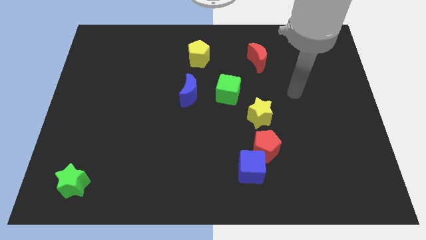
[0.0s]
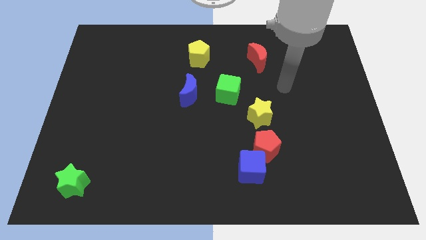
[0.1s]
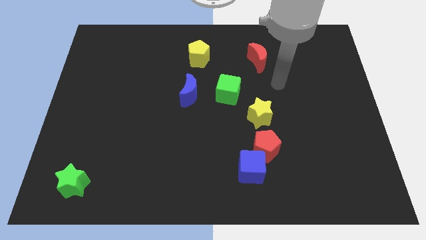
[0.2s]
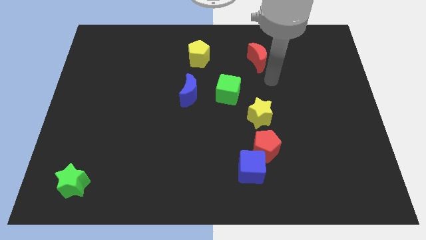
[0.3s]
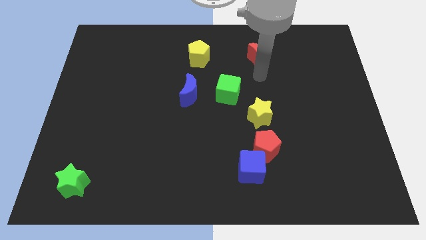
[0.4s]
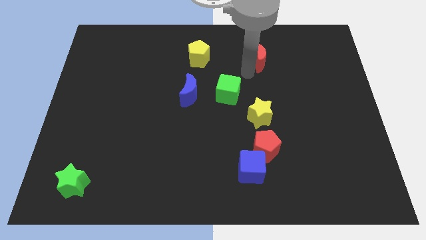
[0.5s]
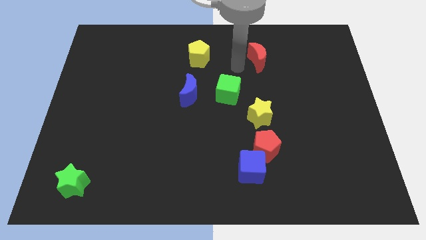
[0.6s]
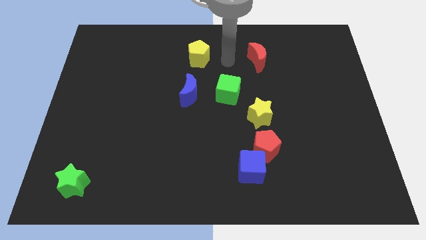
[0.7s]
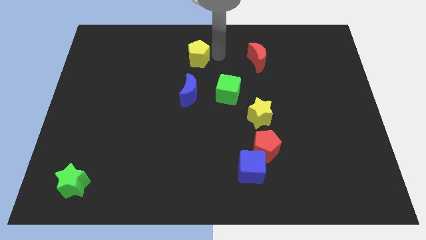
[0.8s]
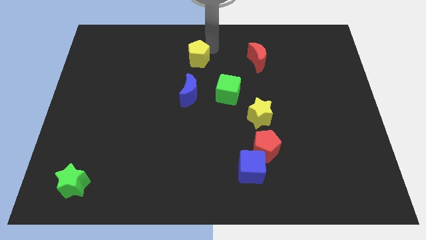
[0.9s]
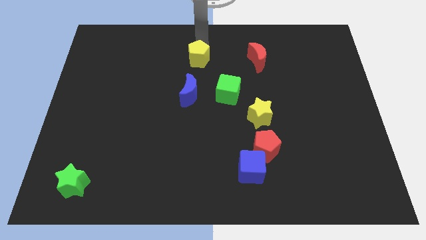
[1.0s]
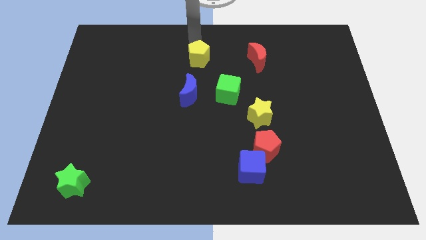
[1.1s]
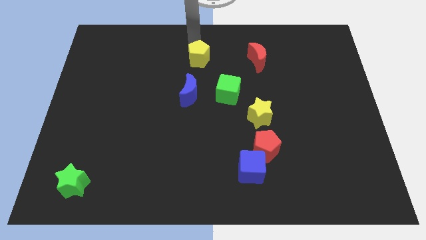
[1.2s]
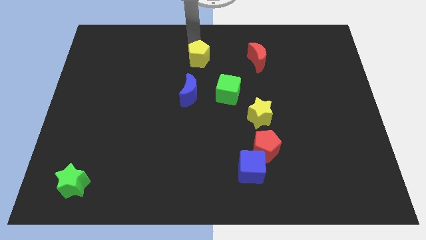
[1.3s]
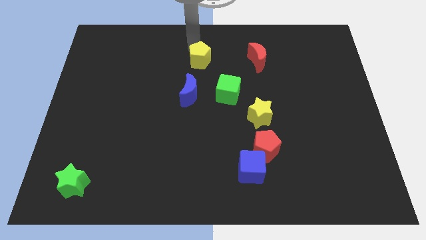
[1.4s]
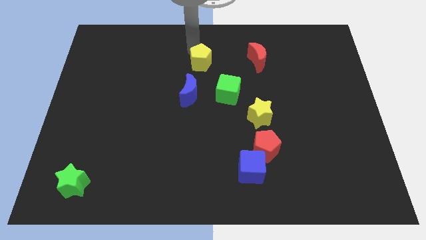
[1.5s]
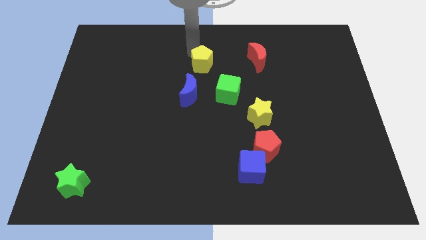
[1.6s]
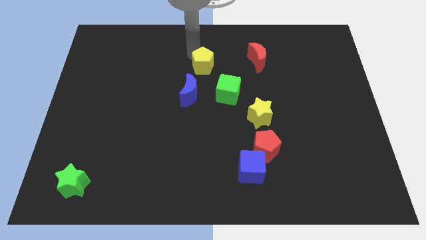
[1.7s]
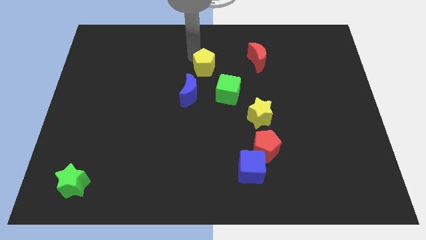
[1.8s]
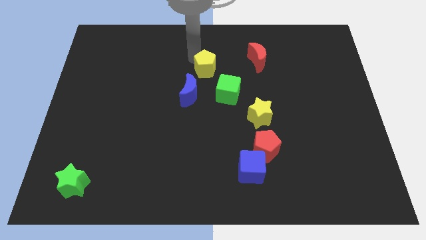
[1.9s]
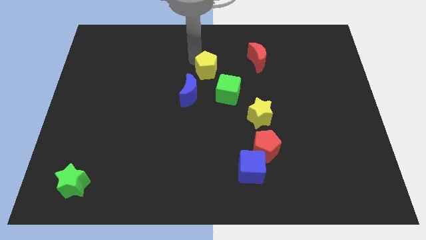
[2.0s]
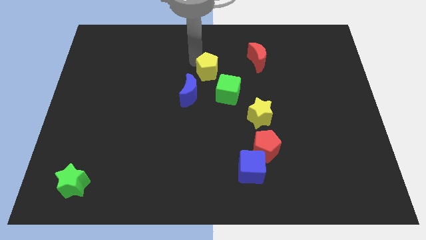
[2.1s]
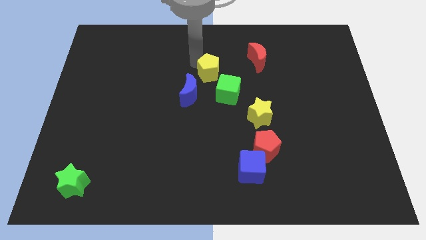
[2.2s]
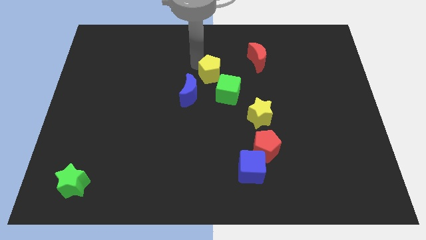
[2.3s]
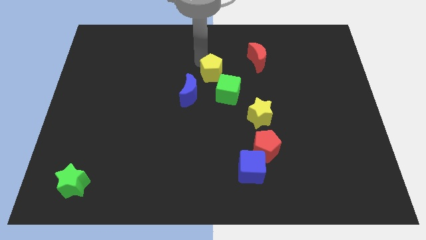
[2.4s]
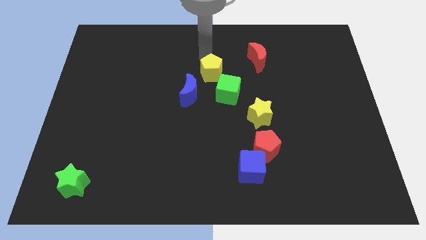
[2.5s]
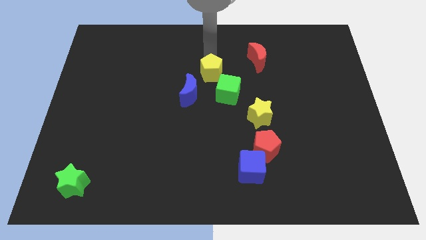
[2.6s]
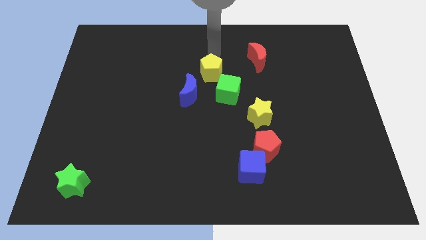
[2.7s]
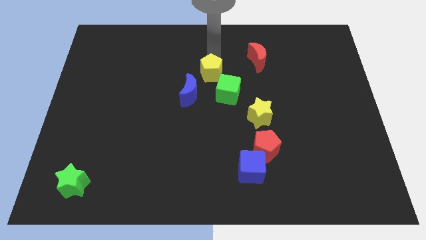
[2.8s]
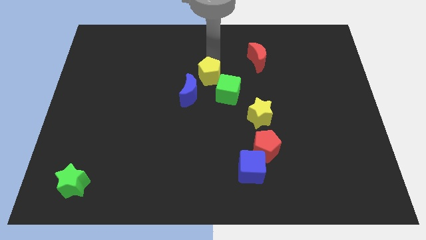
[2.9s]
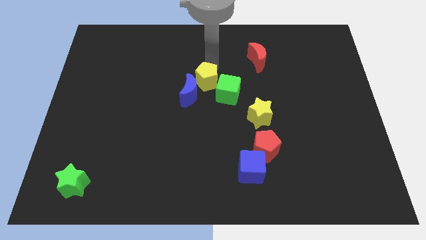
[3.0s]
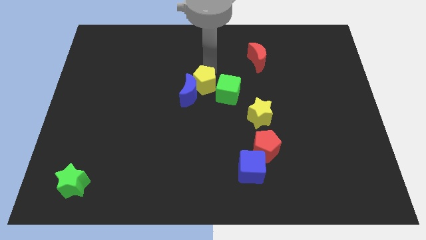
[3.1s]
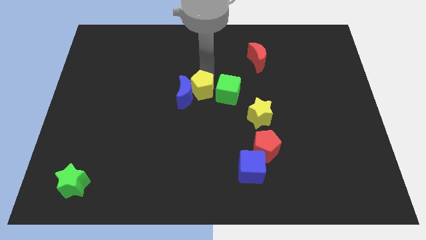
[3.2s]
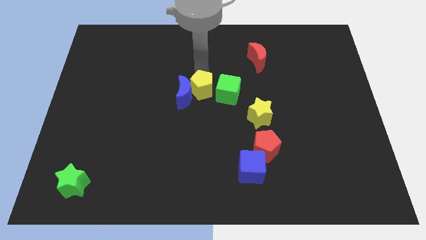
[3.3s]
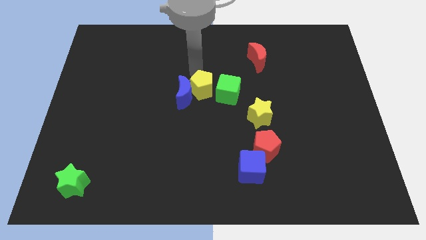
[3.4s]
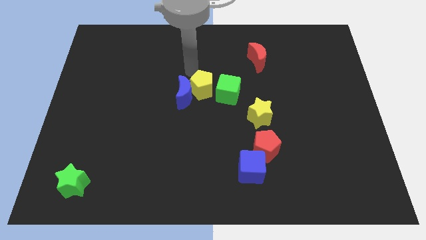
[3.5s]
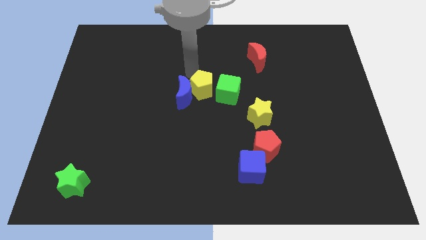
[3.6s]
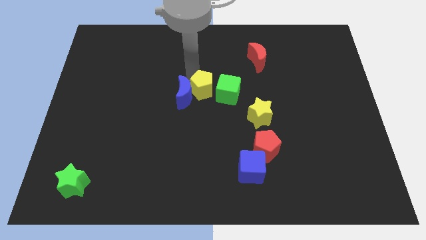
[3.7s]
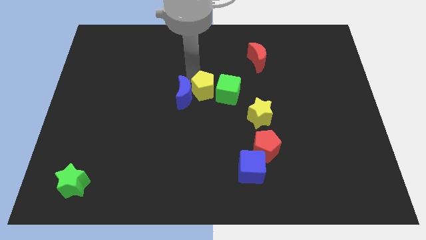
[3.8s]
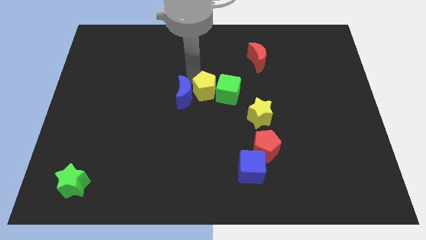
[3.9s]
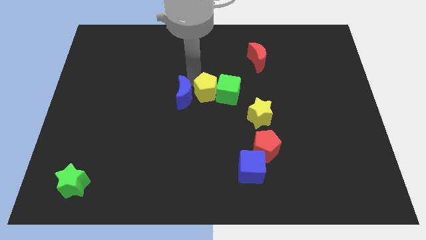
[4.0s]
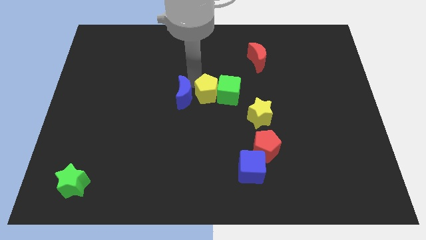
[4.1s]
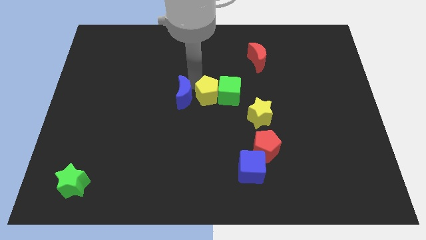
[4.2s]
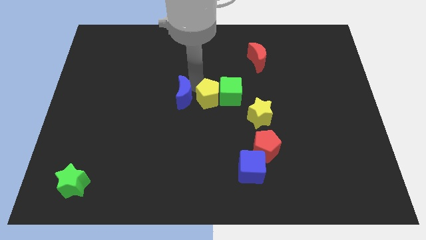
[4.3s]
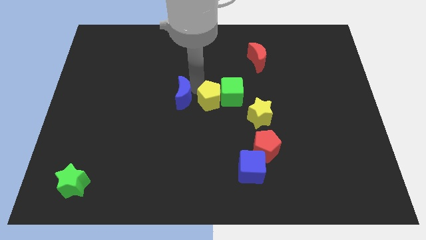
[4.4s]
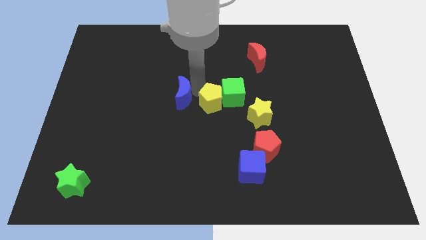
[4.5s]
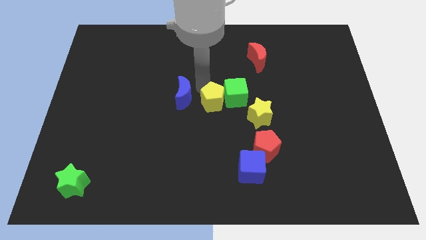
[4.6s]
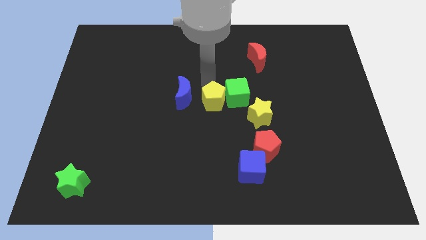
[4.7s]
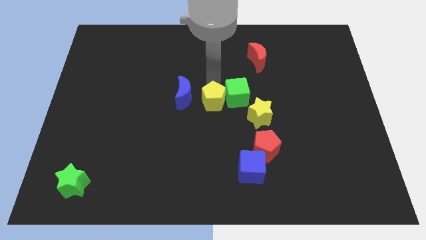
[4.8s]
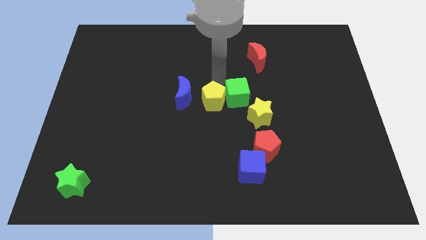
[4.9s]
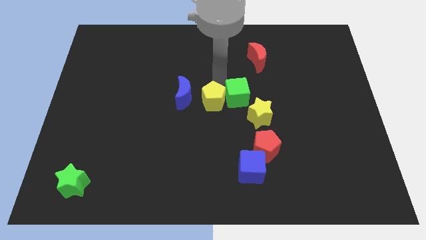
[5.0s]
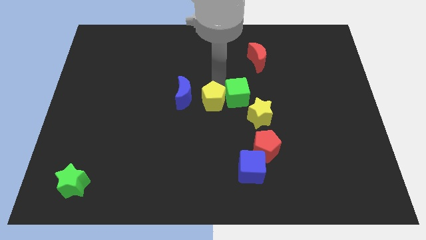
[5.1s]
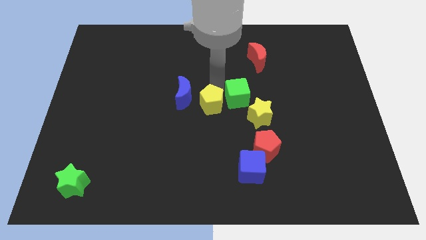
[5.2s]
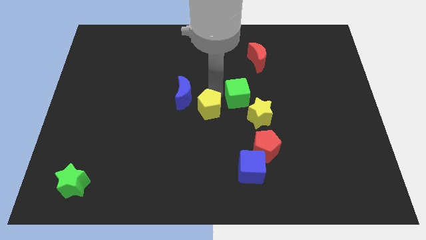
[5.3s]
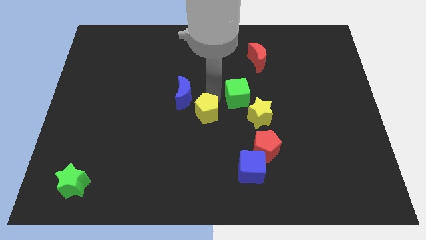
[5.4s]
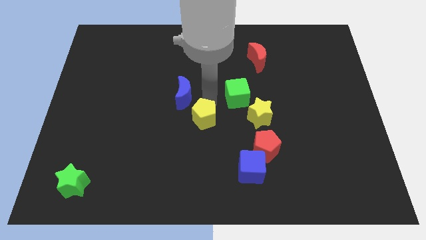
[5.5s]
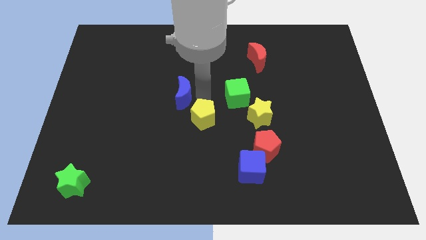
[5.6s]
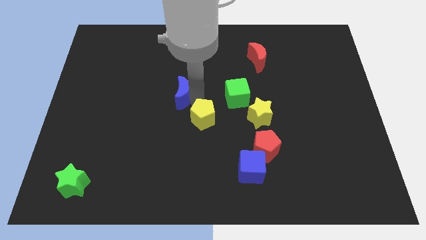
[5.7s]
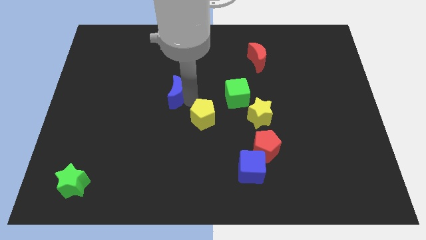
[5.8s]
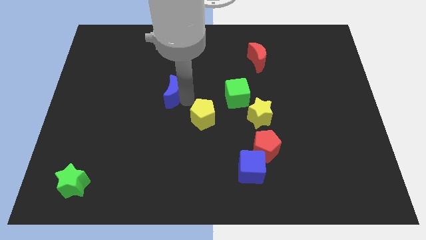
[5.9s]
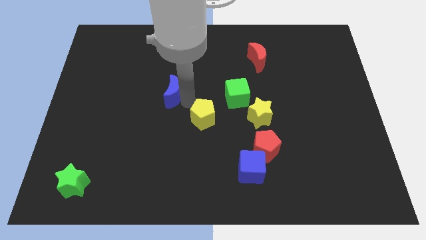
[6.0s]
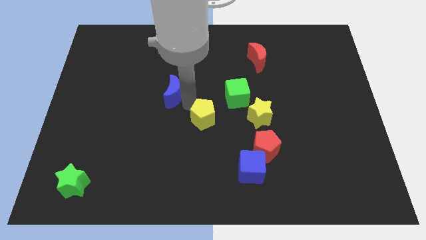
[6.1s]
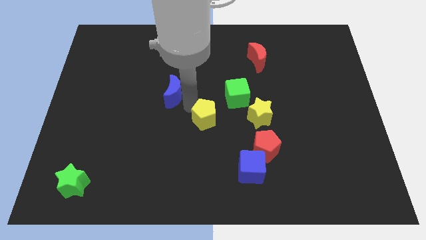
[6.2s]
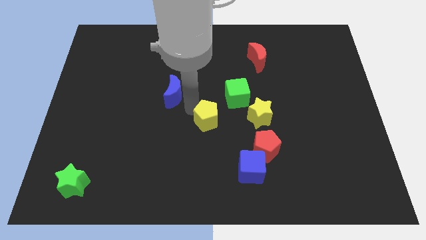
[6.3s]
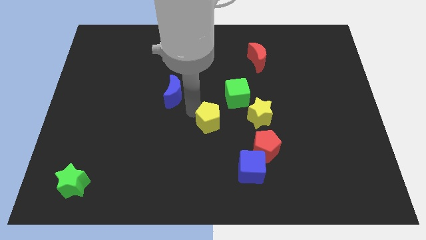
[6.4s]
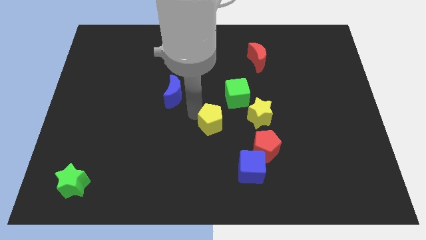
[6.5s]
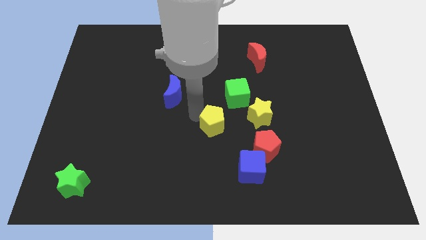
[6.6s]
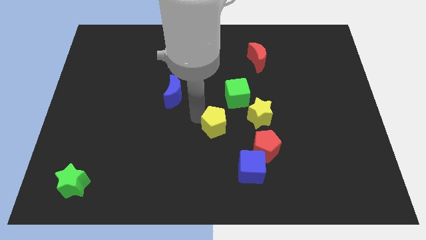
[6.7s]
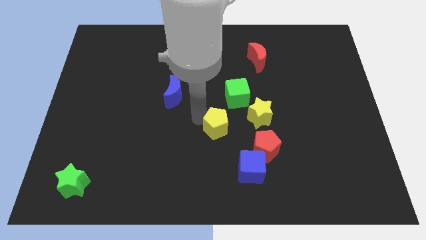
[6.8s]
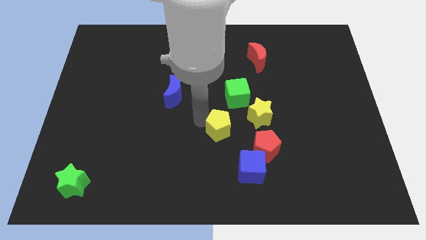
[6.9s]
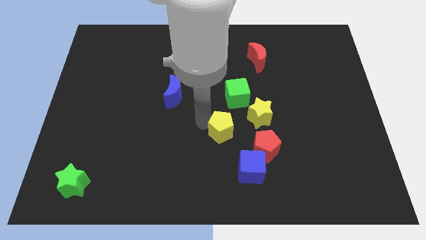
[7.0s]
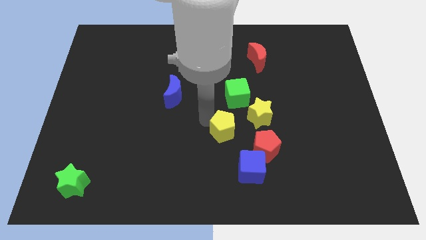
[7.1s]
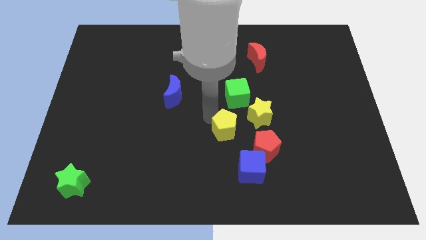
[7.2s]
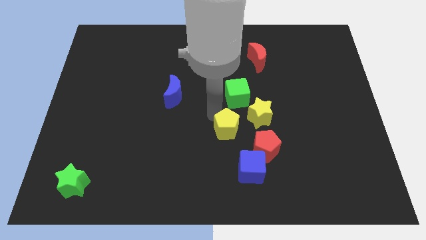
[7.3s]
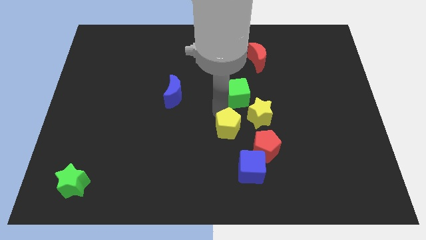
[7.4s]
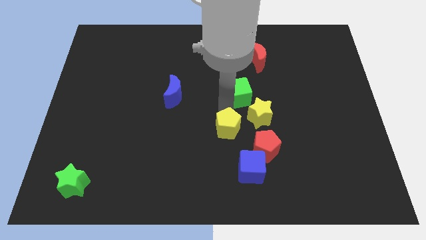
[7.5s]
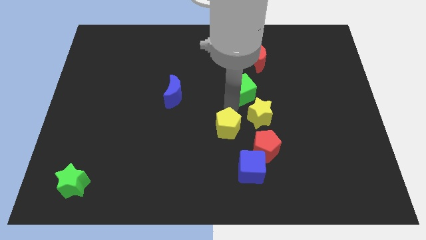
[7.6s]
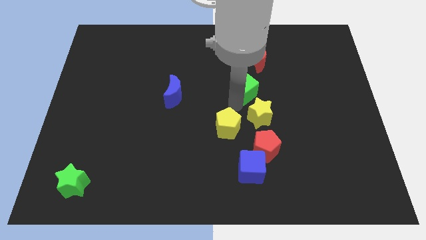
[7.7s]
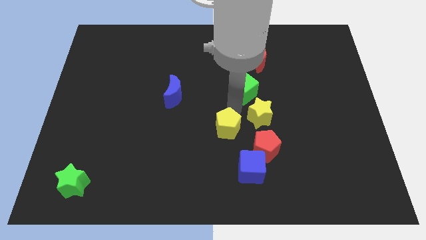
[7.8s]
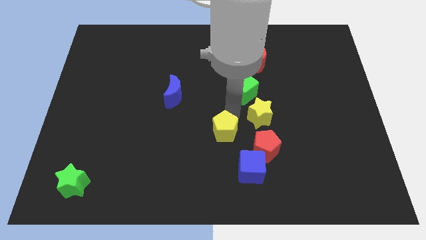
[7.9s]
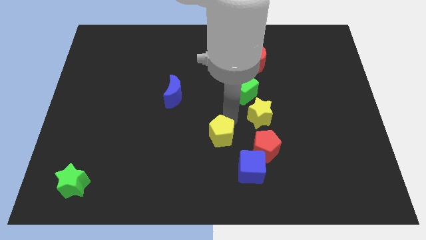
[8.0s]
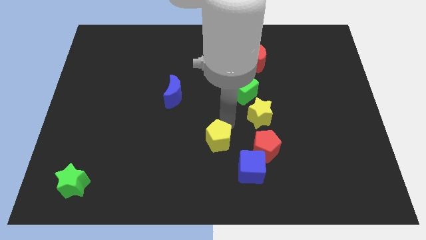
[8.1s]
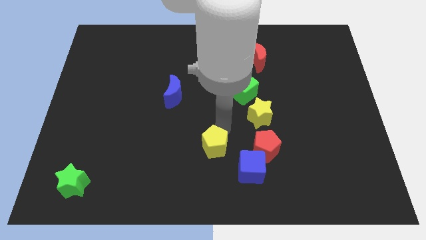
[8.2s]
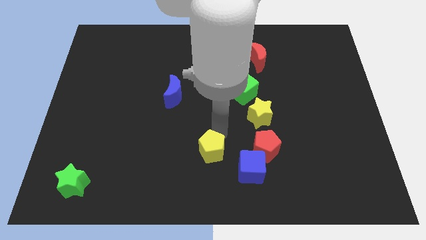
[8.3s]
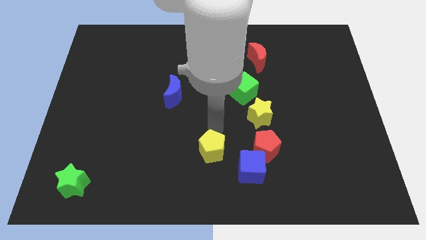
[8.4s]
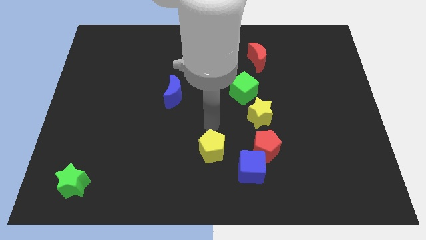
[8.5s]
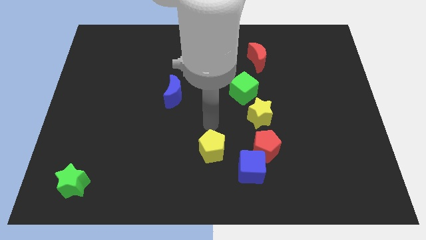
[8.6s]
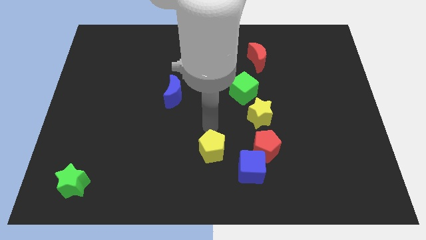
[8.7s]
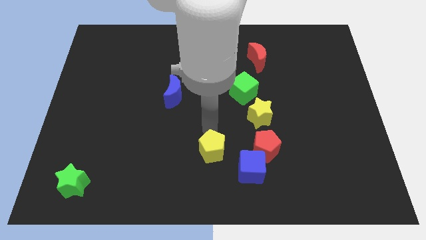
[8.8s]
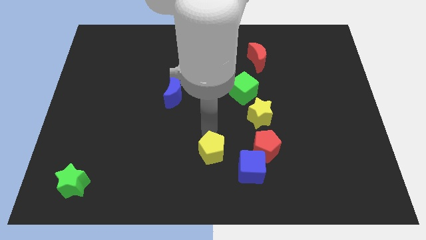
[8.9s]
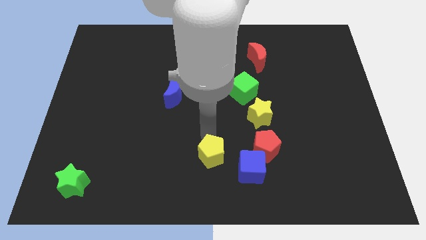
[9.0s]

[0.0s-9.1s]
put the yellow pentagon to the bottom
